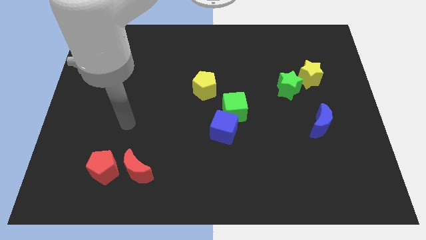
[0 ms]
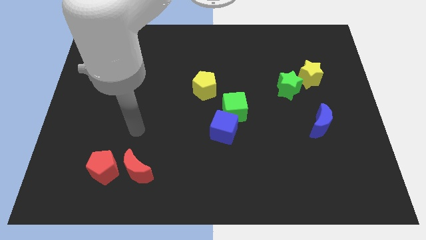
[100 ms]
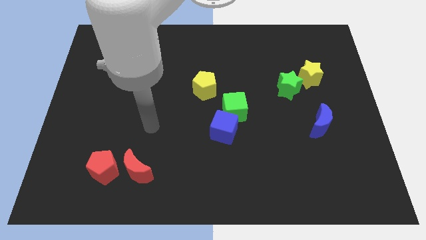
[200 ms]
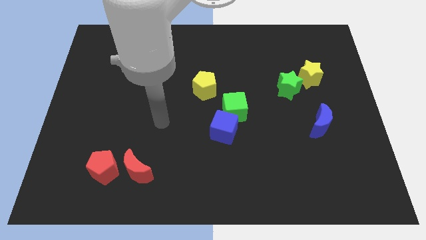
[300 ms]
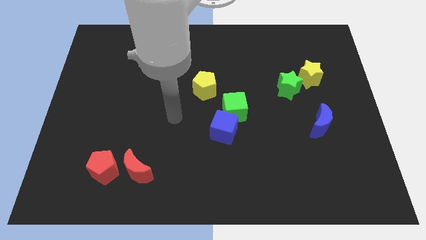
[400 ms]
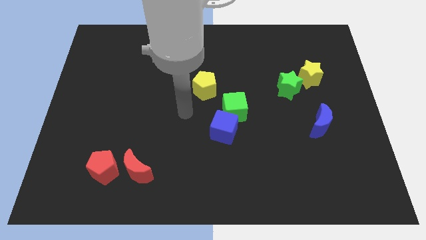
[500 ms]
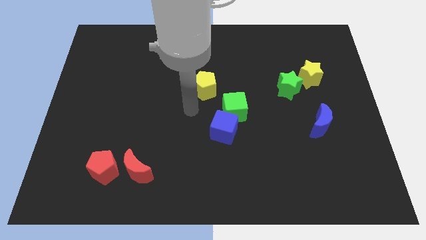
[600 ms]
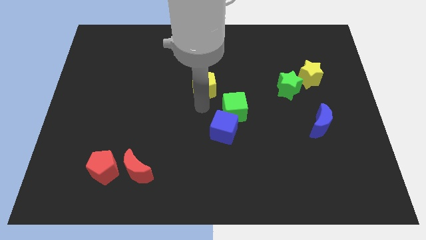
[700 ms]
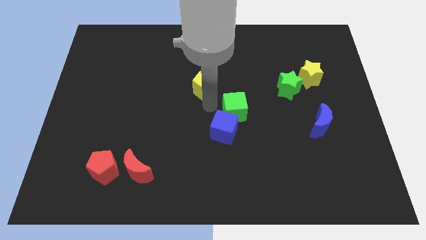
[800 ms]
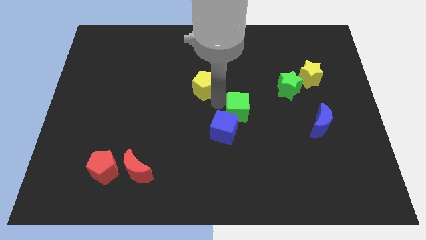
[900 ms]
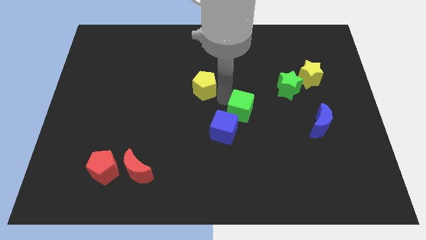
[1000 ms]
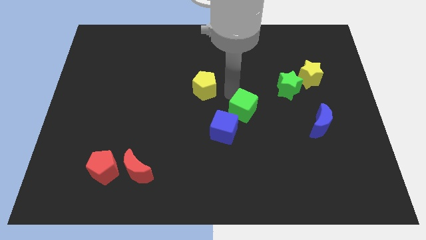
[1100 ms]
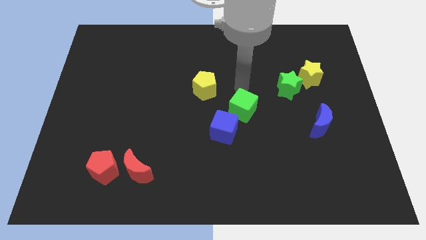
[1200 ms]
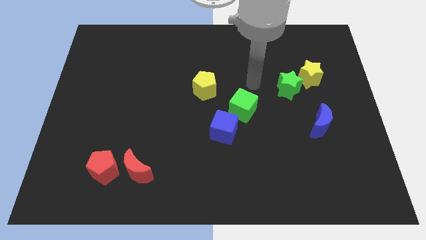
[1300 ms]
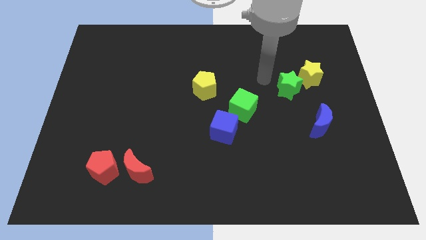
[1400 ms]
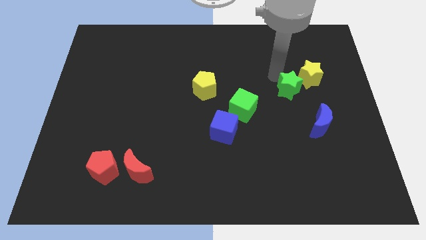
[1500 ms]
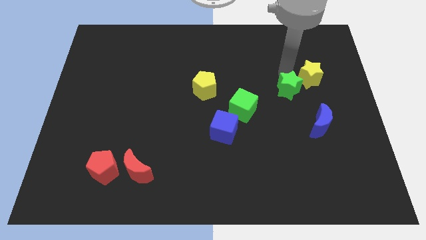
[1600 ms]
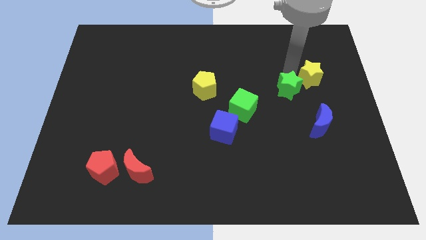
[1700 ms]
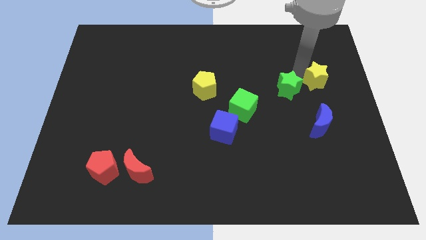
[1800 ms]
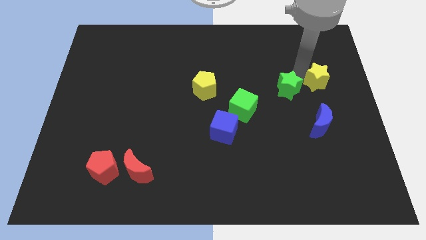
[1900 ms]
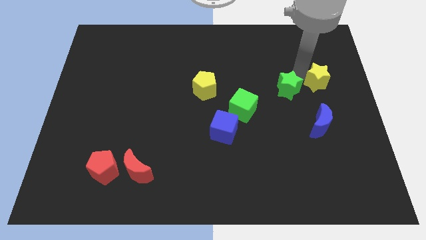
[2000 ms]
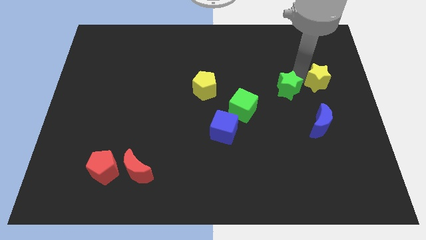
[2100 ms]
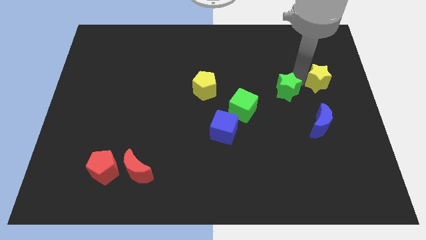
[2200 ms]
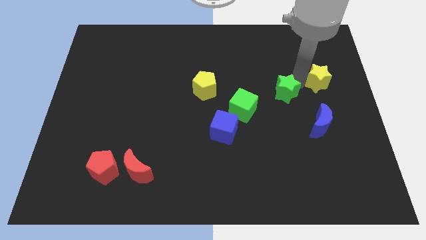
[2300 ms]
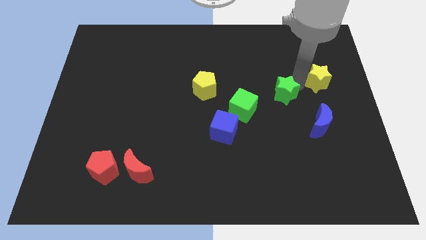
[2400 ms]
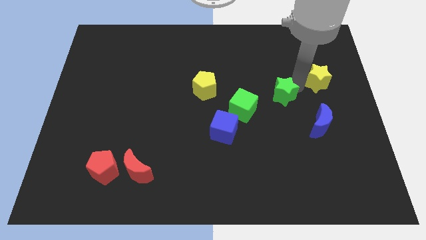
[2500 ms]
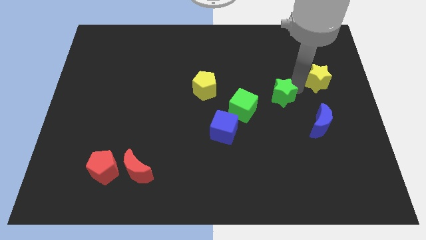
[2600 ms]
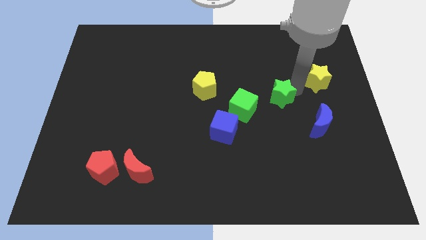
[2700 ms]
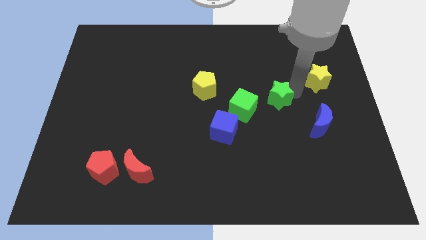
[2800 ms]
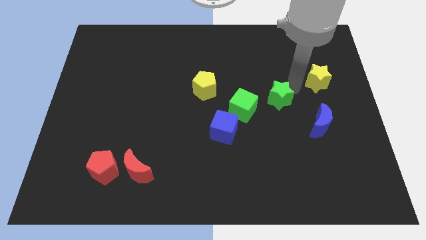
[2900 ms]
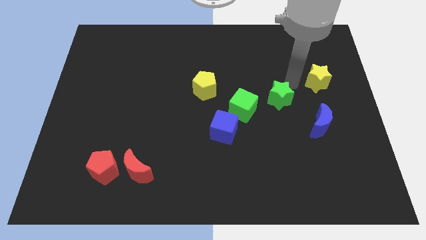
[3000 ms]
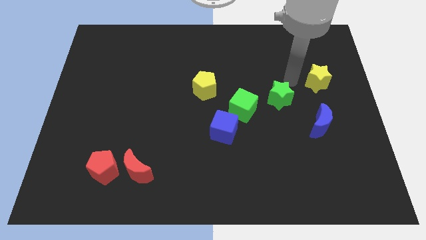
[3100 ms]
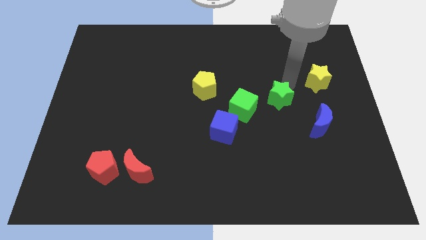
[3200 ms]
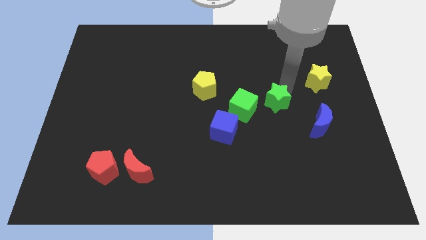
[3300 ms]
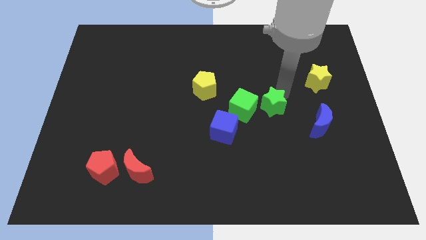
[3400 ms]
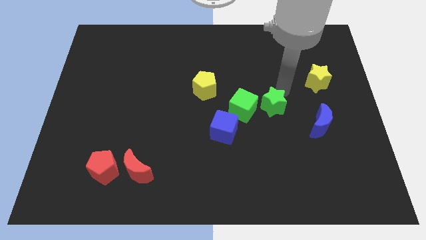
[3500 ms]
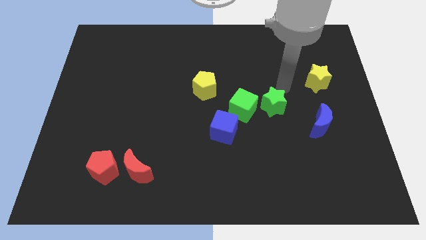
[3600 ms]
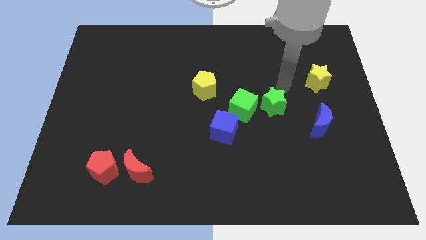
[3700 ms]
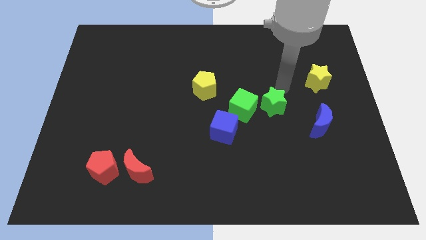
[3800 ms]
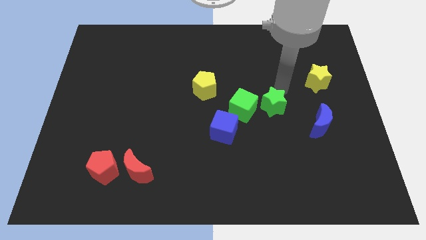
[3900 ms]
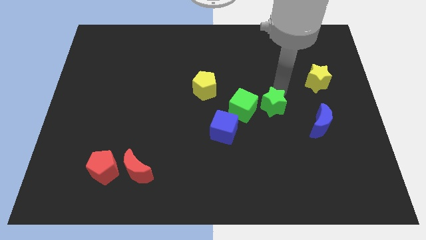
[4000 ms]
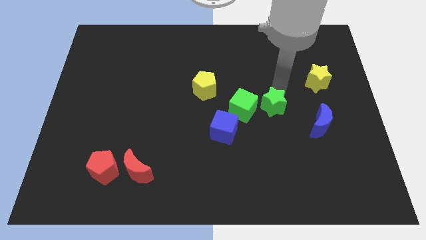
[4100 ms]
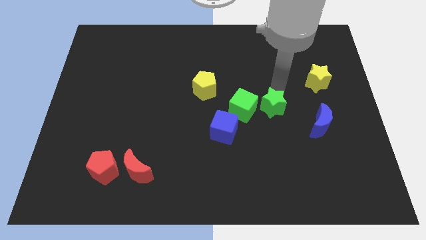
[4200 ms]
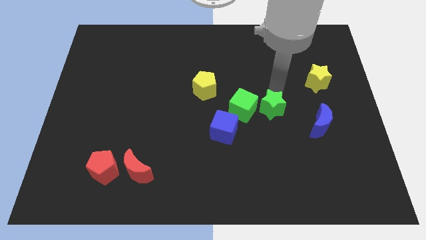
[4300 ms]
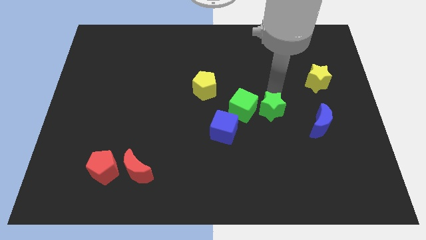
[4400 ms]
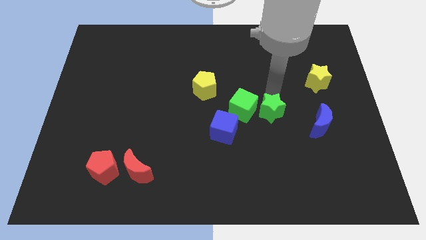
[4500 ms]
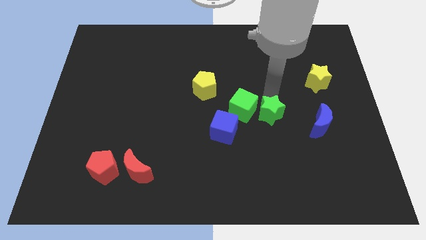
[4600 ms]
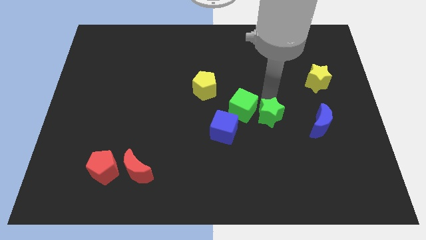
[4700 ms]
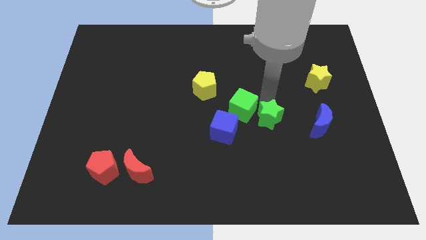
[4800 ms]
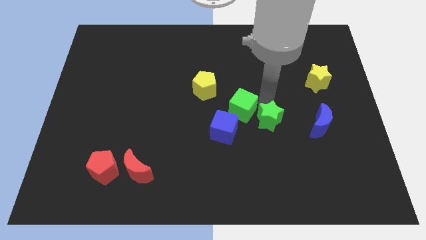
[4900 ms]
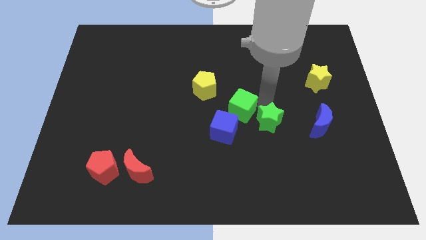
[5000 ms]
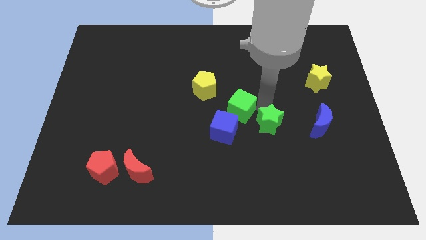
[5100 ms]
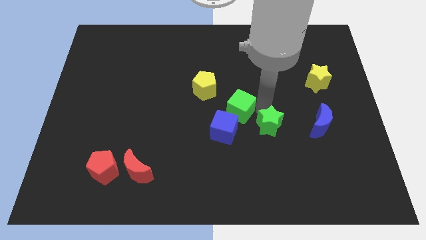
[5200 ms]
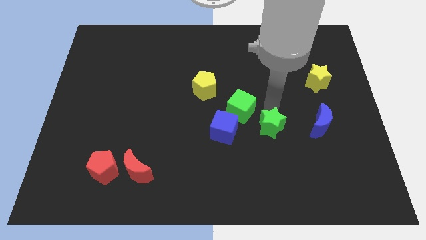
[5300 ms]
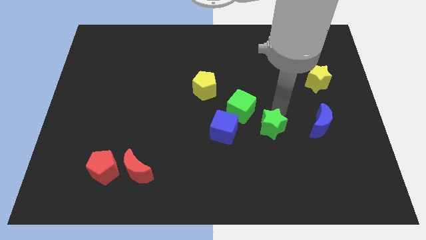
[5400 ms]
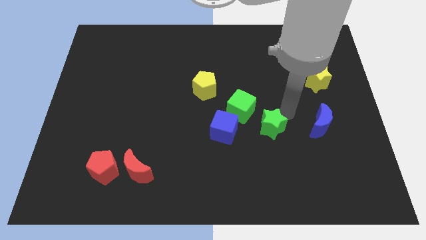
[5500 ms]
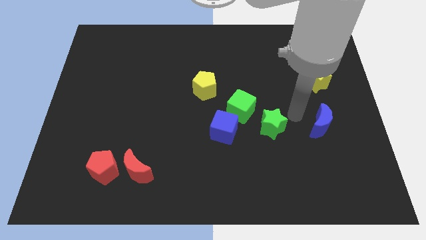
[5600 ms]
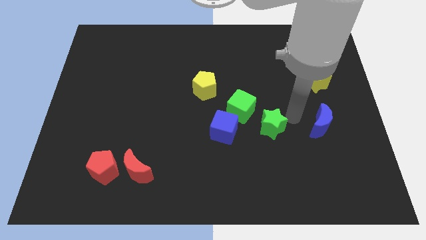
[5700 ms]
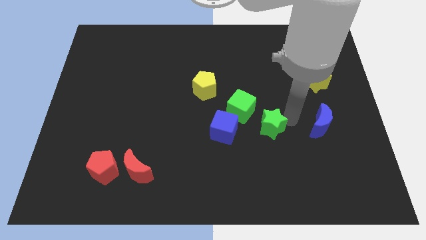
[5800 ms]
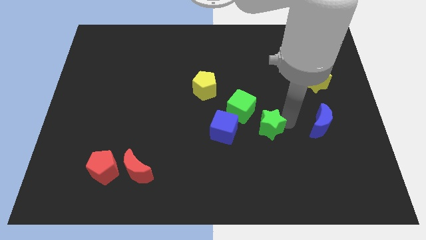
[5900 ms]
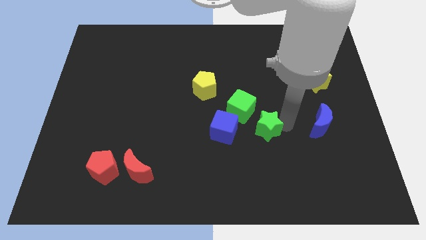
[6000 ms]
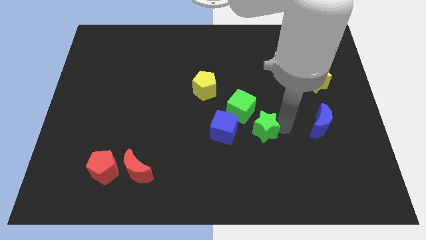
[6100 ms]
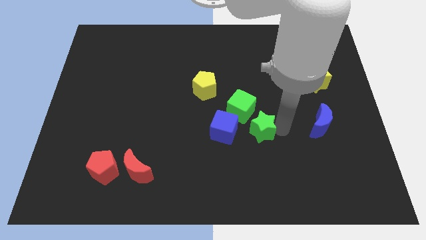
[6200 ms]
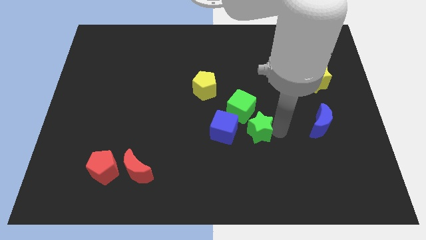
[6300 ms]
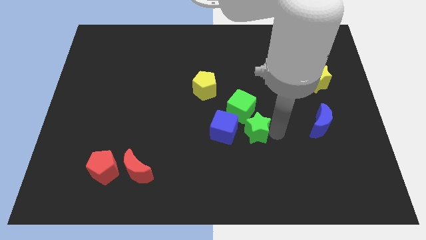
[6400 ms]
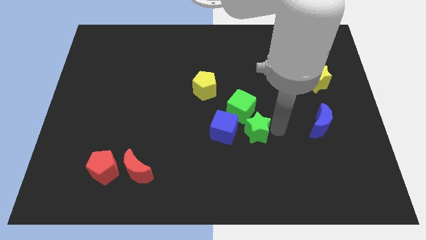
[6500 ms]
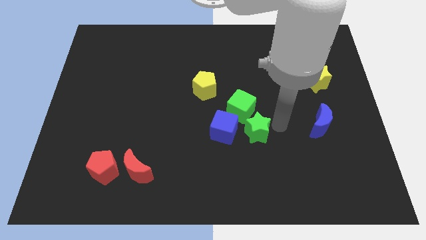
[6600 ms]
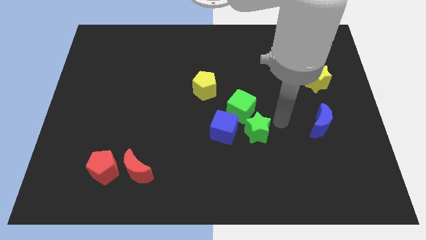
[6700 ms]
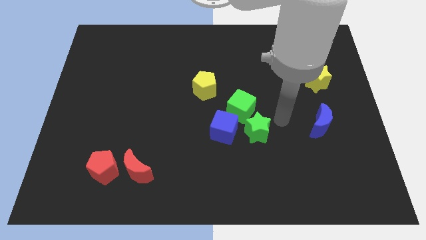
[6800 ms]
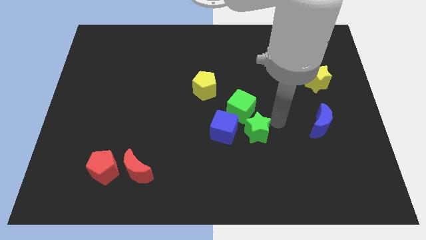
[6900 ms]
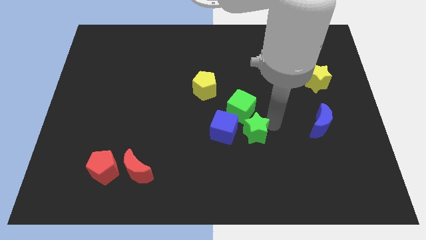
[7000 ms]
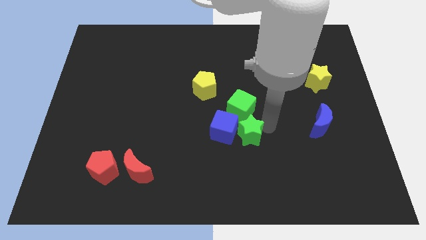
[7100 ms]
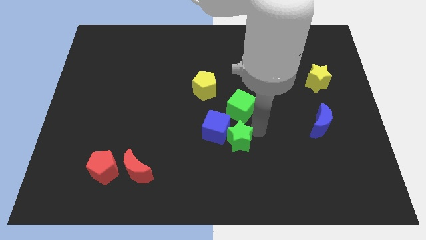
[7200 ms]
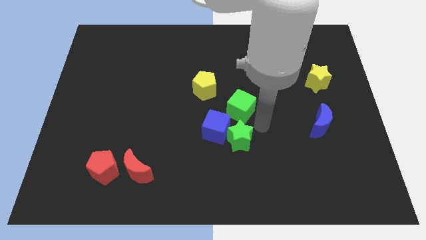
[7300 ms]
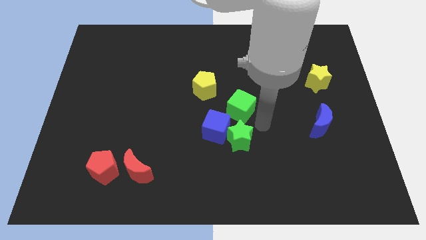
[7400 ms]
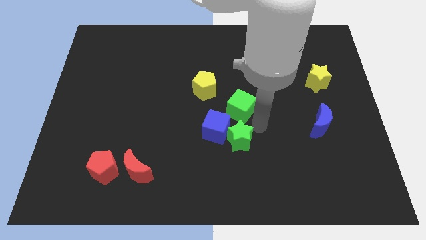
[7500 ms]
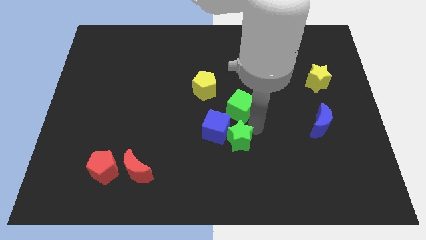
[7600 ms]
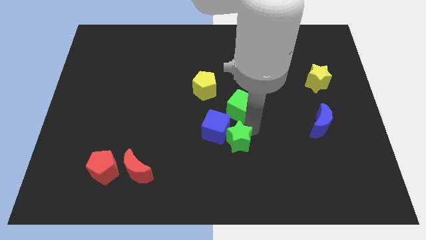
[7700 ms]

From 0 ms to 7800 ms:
push the green star downwards and then to the left

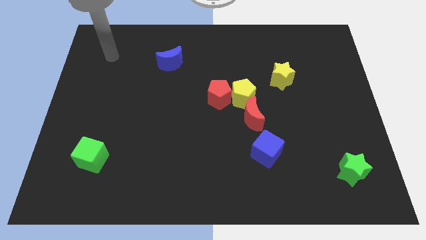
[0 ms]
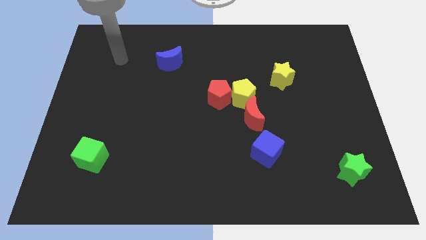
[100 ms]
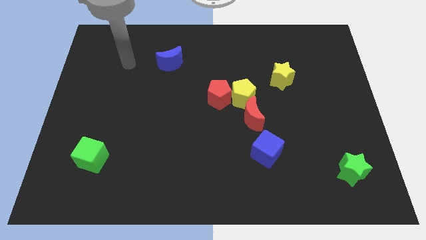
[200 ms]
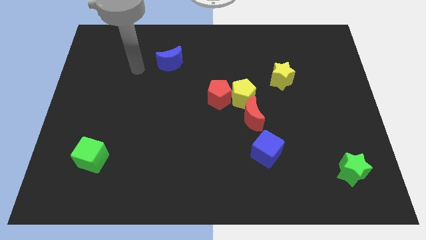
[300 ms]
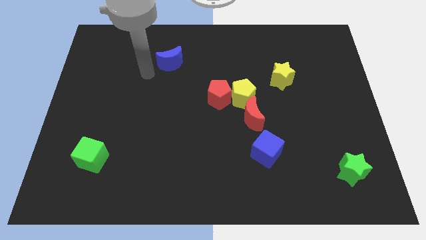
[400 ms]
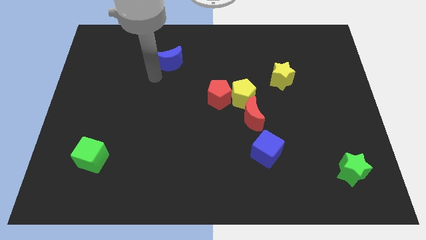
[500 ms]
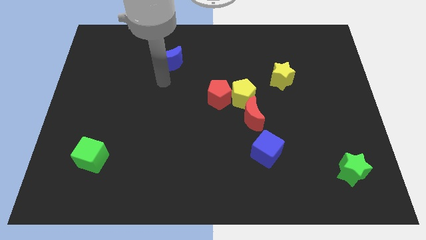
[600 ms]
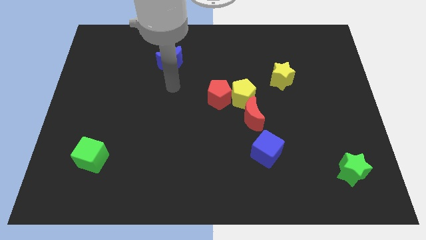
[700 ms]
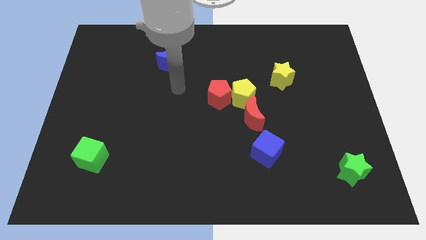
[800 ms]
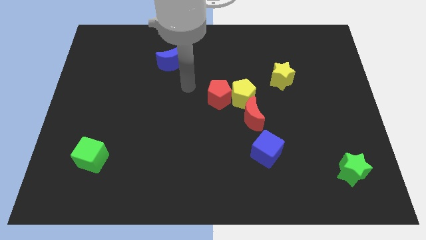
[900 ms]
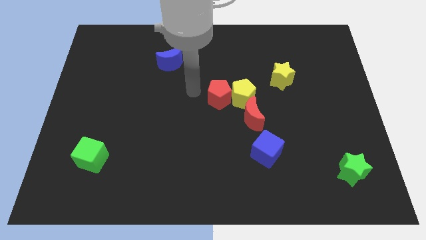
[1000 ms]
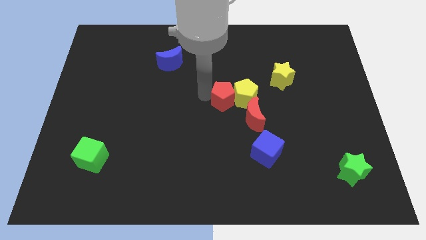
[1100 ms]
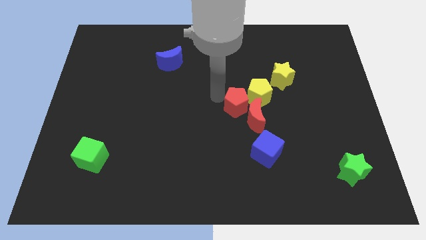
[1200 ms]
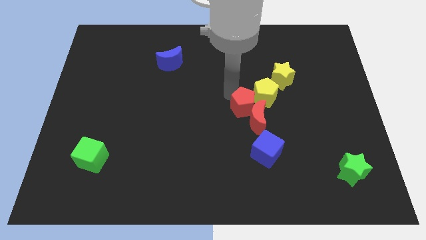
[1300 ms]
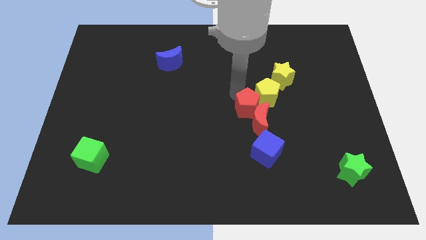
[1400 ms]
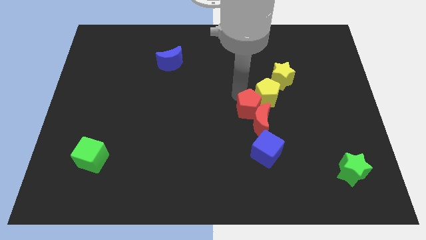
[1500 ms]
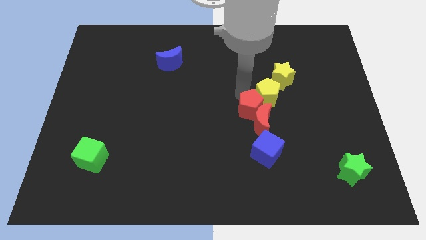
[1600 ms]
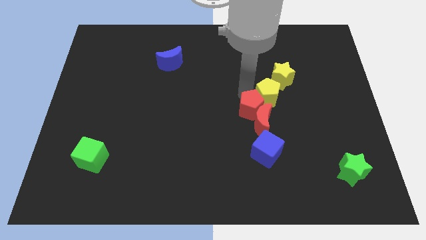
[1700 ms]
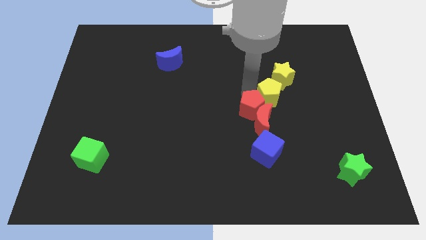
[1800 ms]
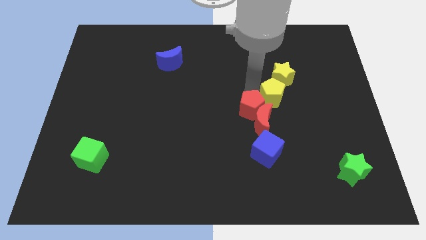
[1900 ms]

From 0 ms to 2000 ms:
slide the yellow pentagon to the right a little
